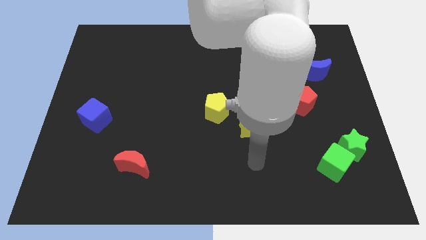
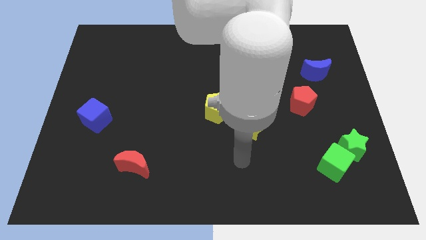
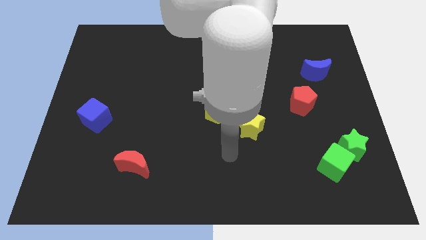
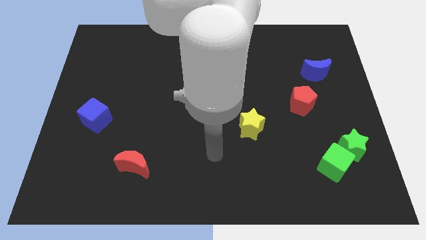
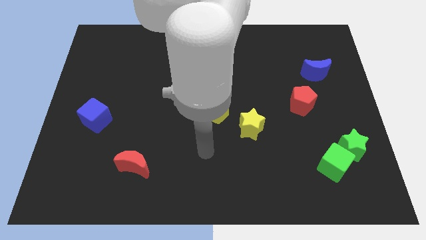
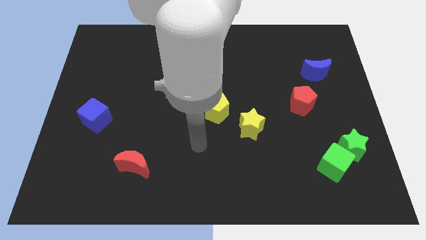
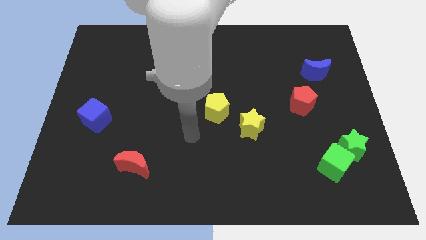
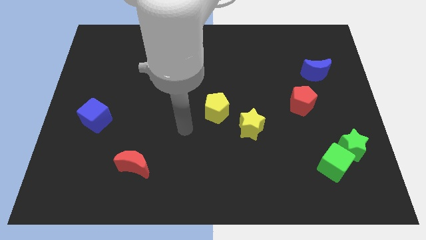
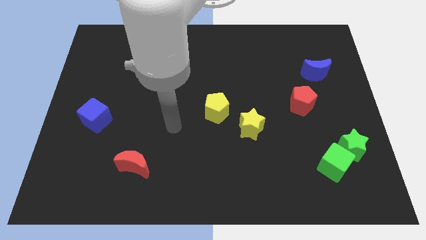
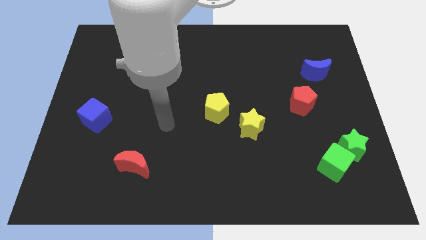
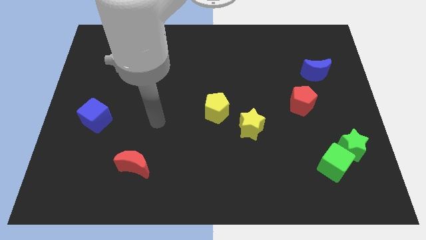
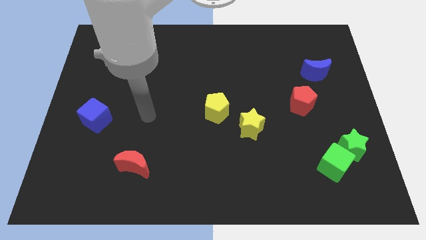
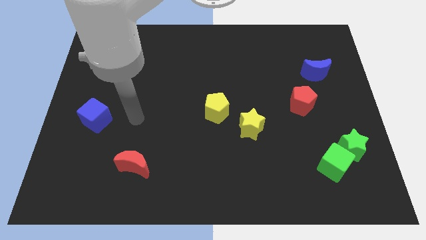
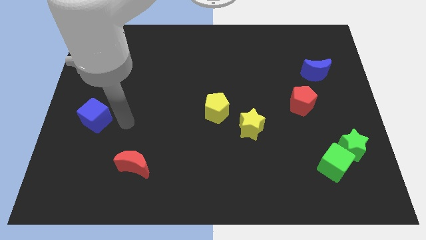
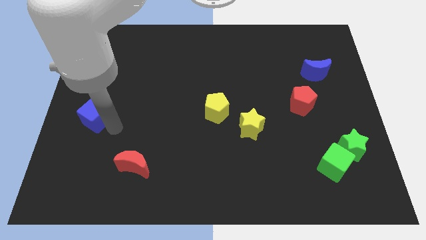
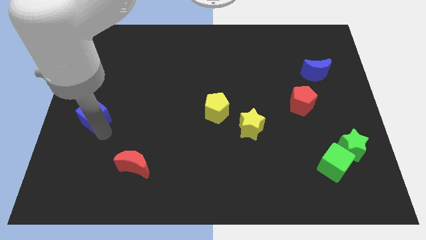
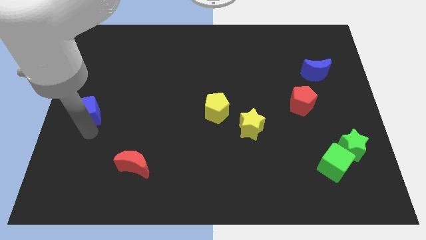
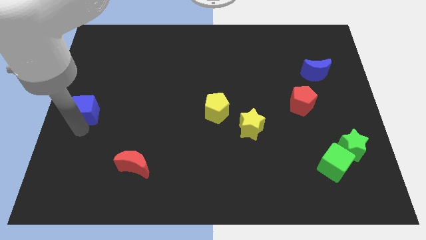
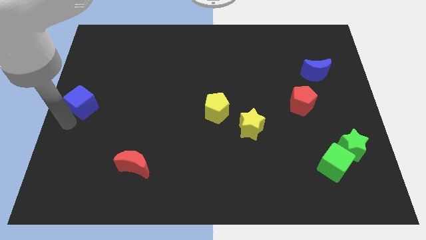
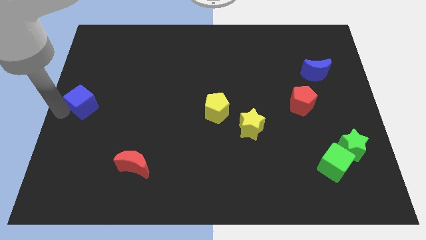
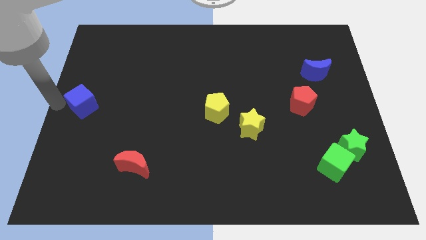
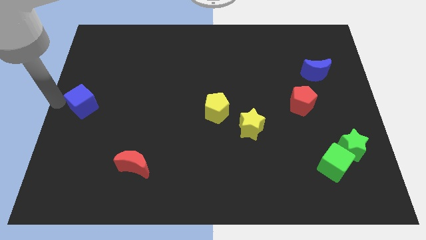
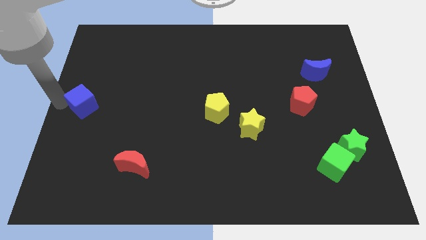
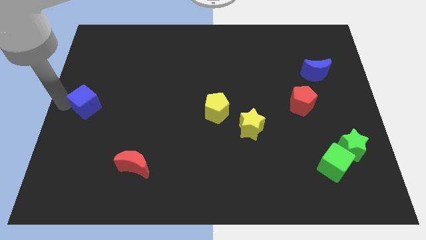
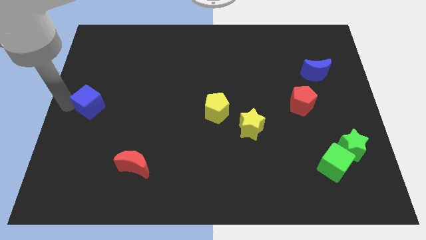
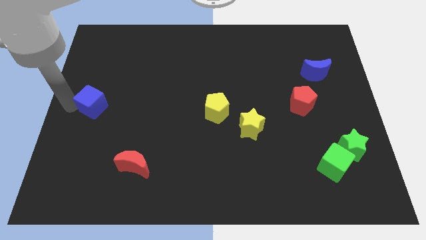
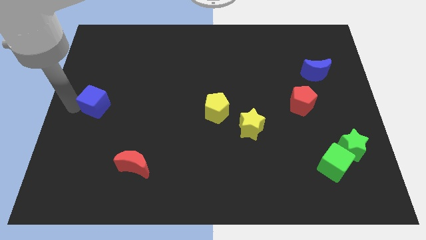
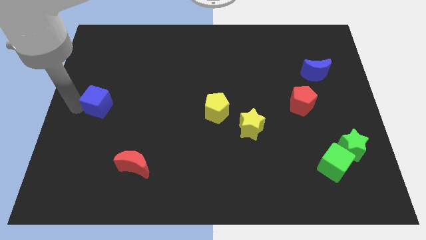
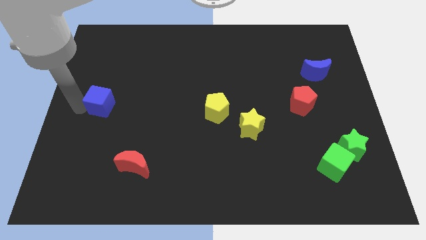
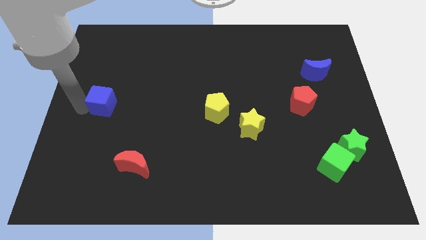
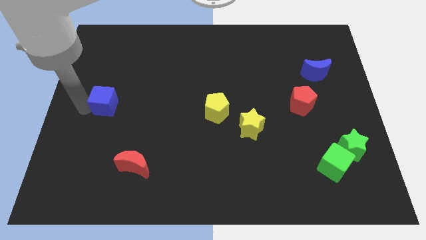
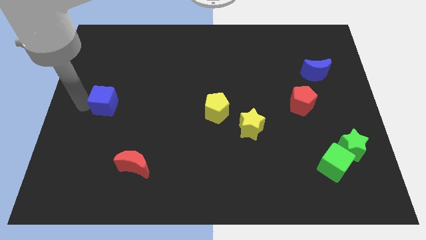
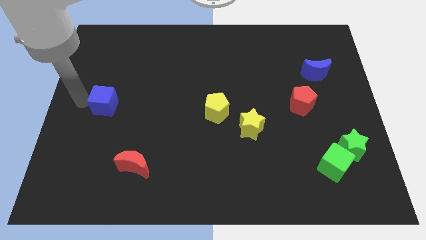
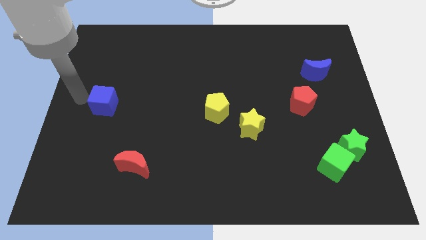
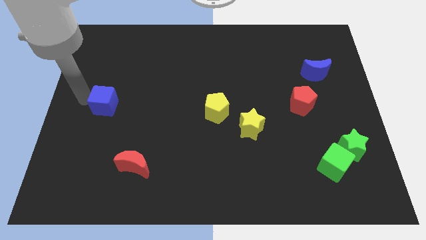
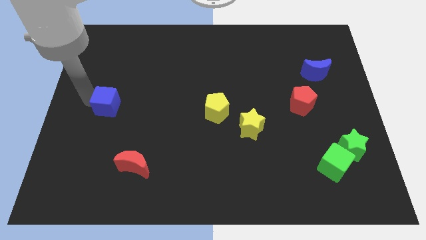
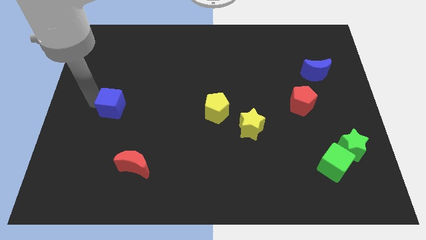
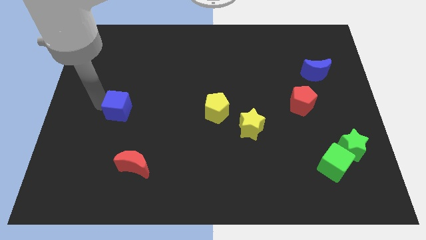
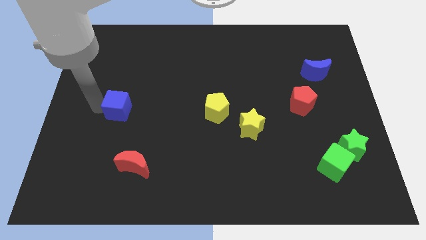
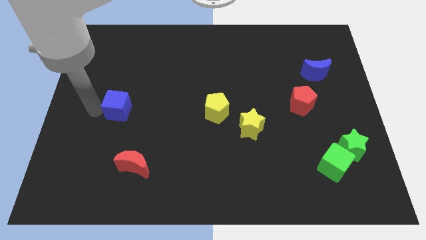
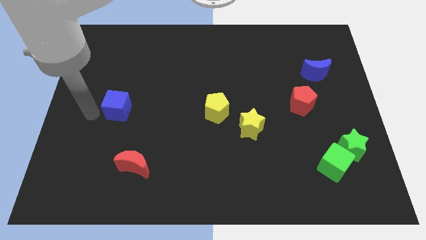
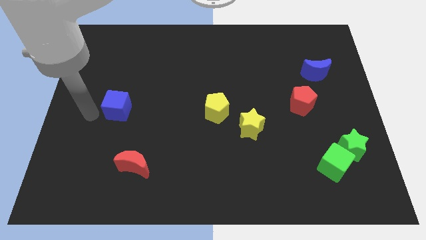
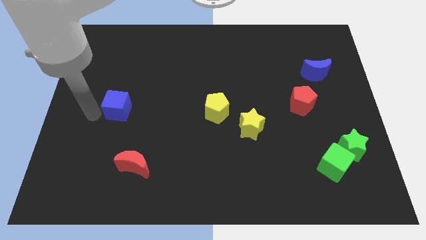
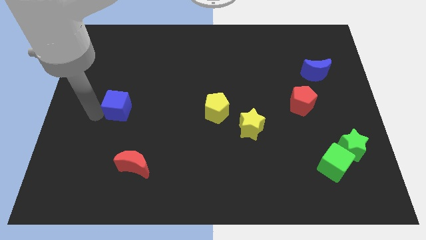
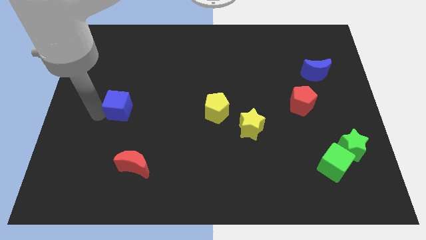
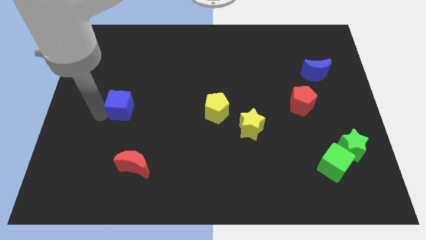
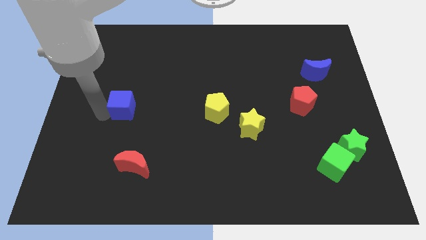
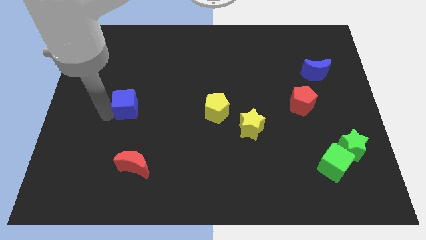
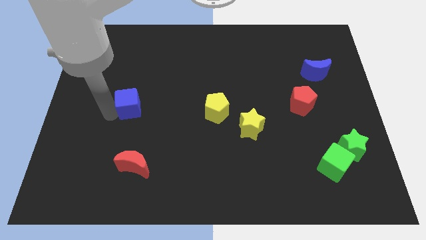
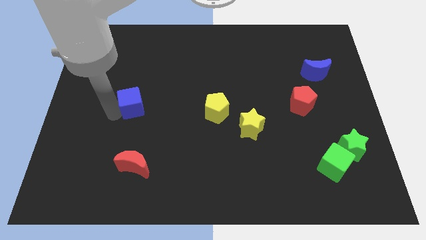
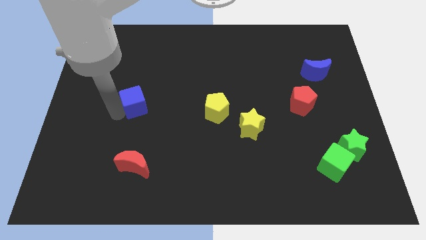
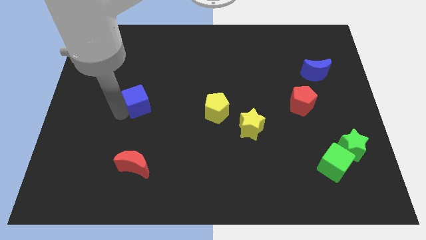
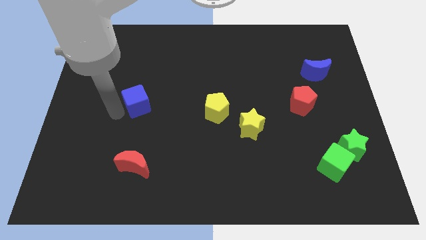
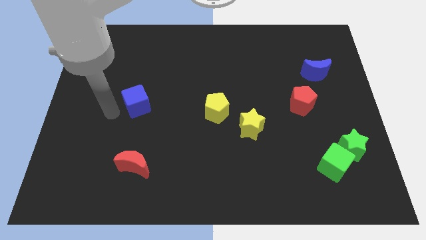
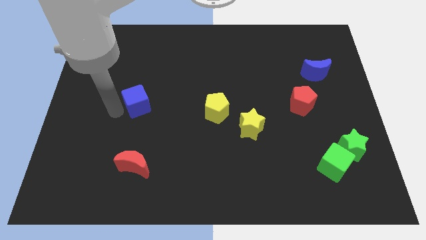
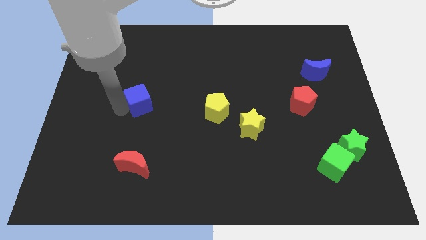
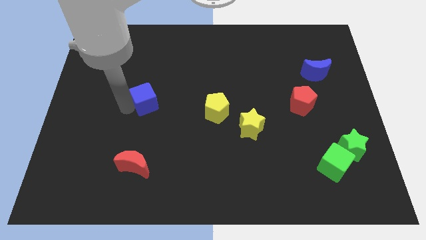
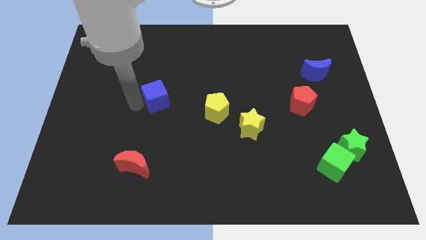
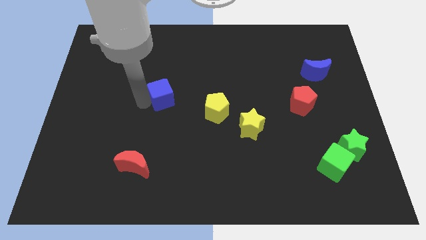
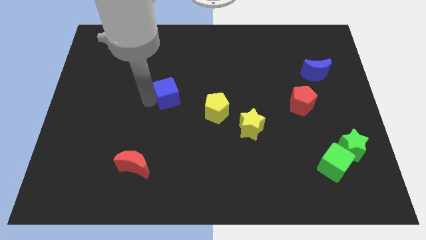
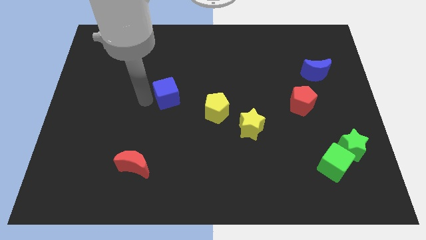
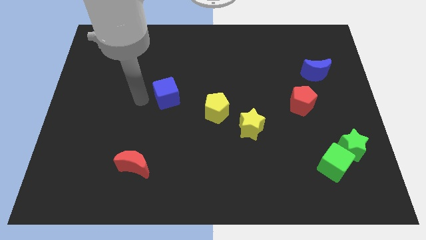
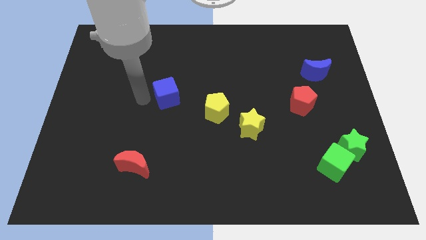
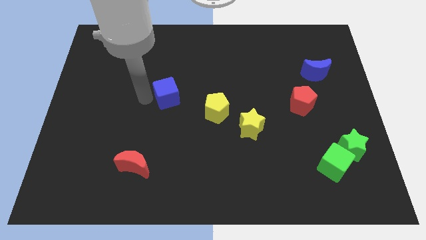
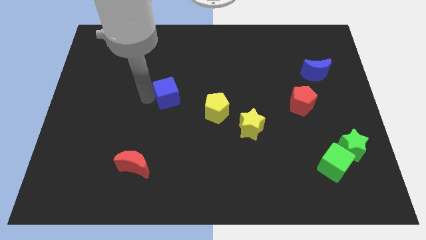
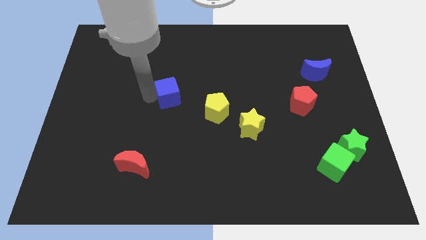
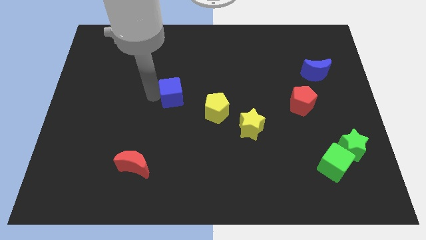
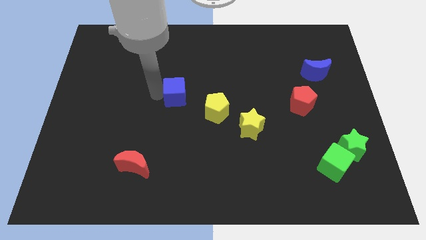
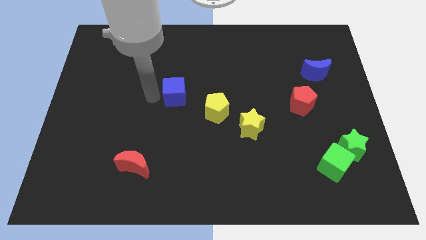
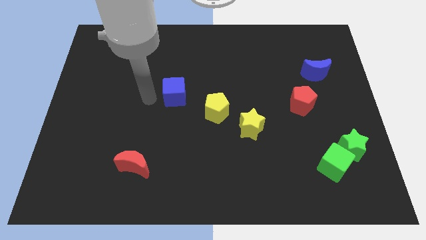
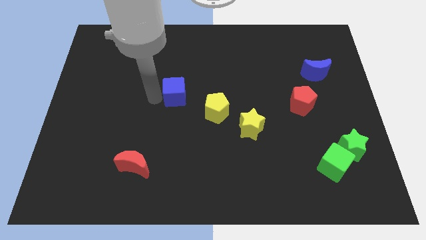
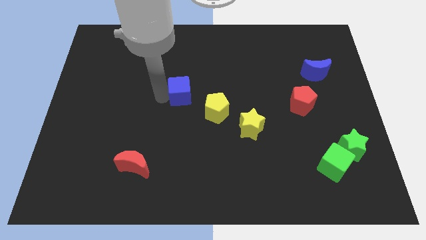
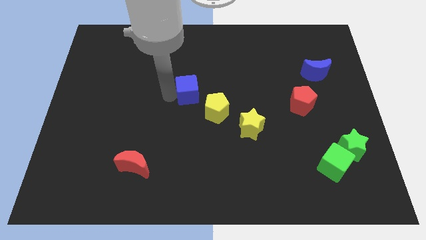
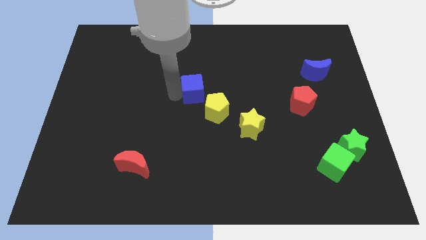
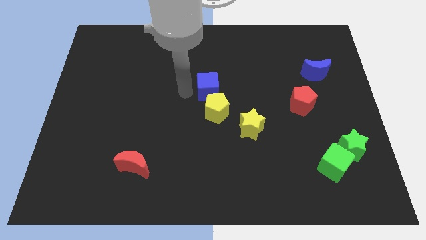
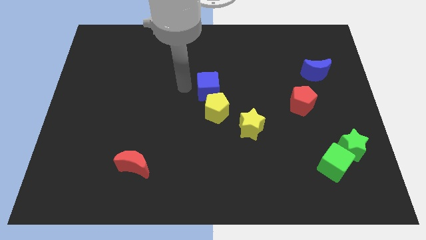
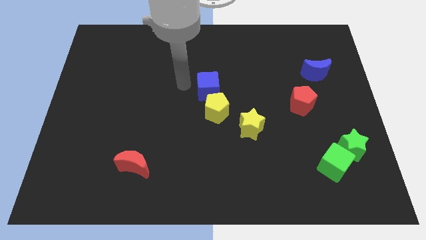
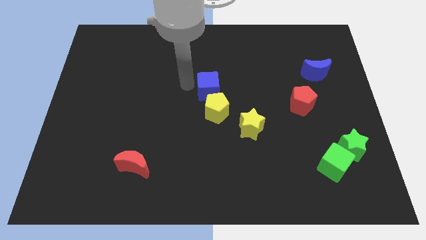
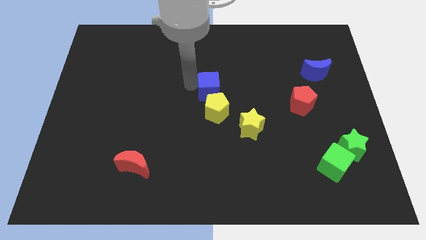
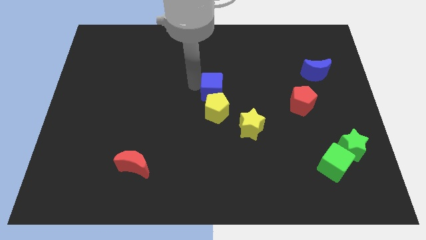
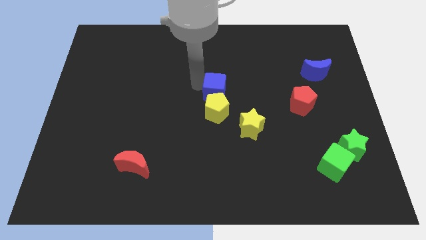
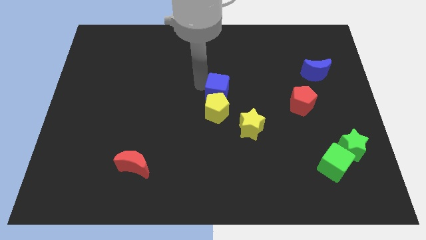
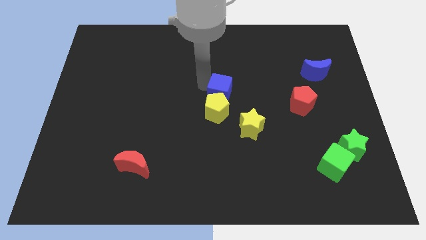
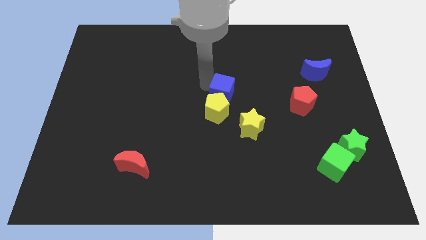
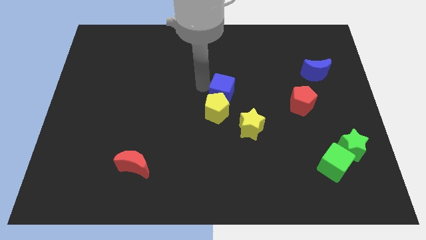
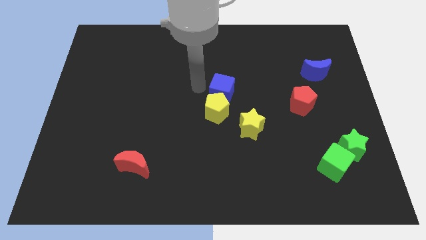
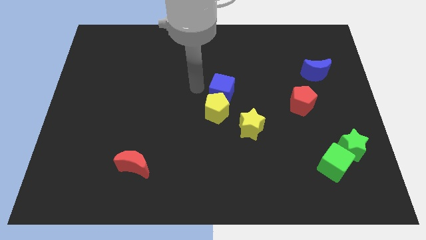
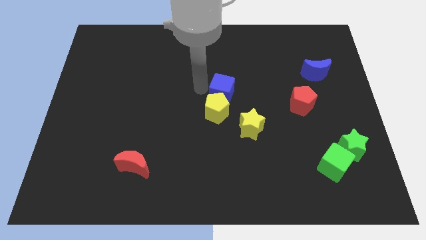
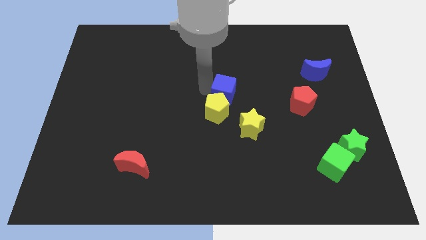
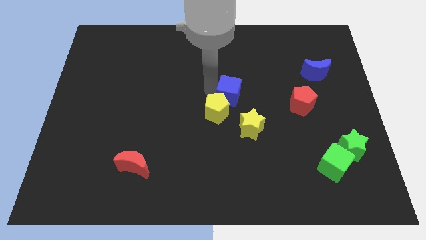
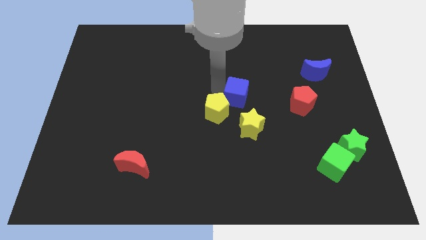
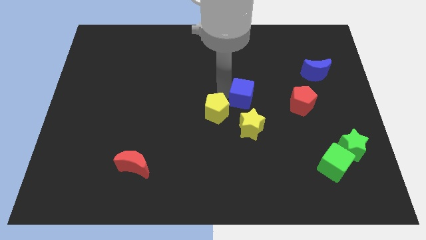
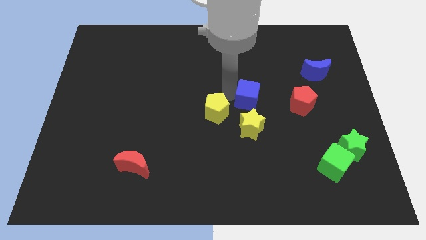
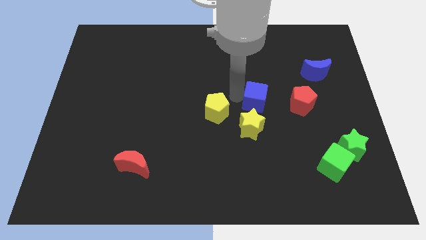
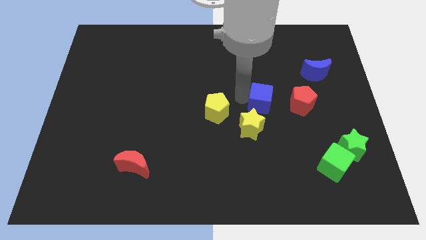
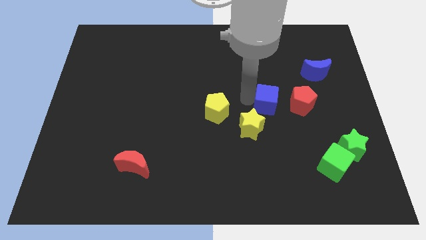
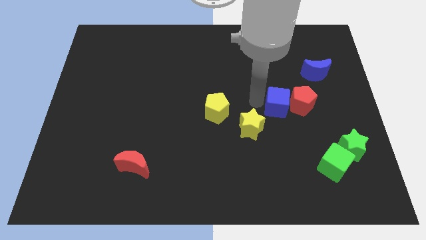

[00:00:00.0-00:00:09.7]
slide the blue cube to the red pentagon
